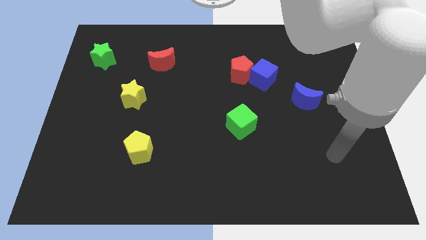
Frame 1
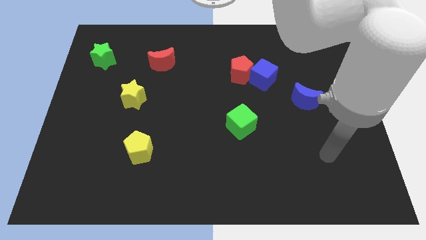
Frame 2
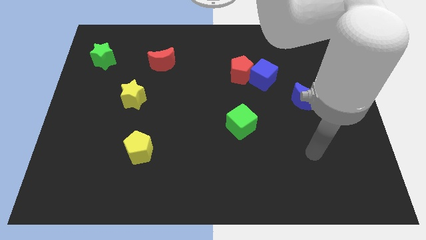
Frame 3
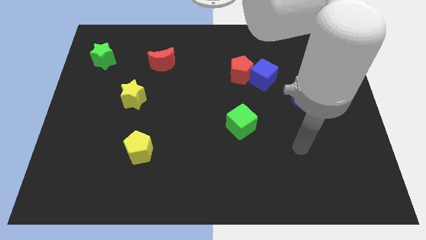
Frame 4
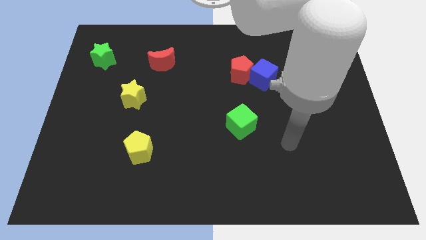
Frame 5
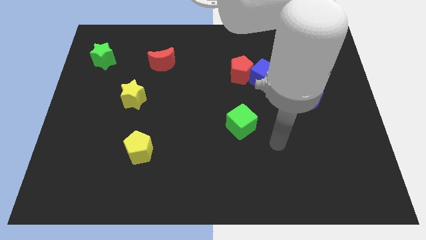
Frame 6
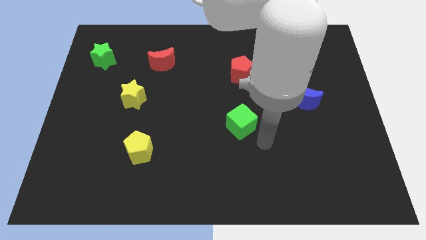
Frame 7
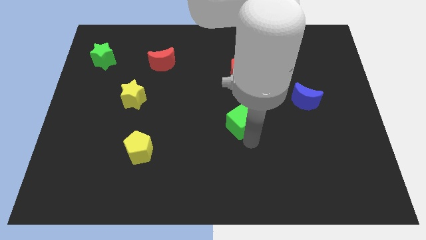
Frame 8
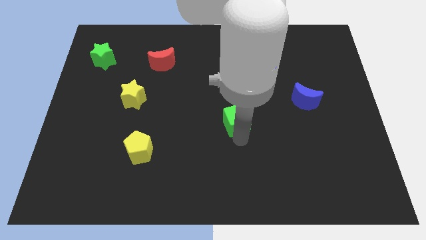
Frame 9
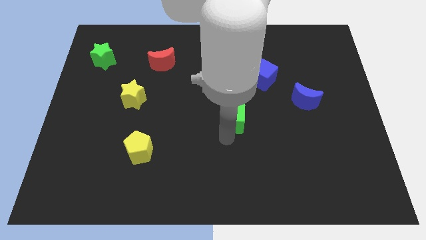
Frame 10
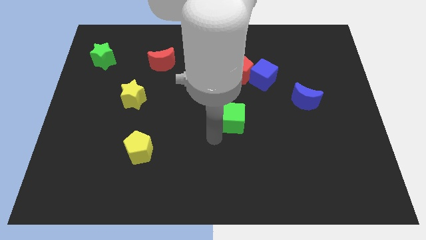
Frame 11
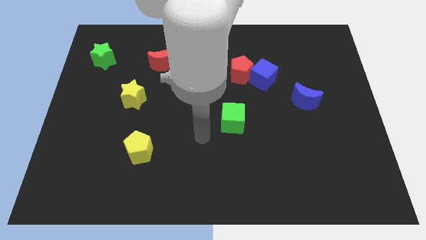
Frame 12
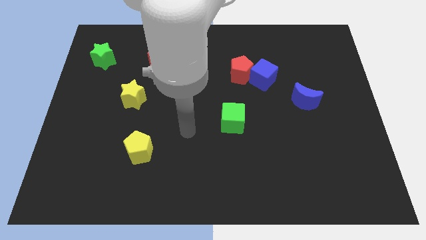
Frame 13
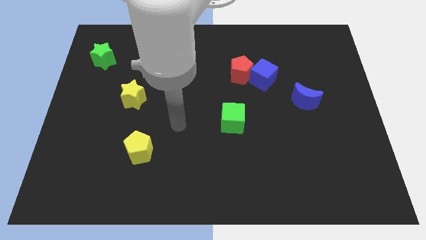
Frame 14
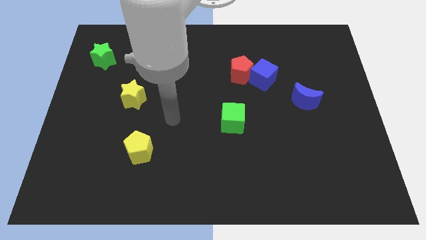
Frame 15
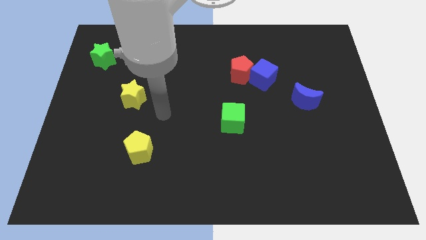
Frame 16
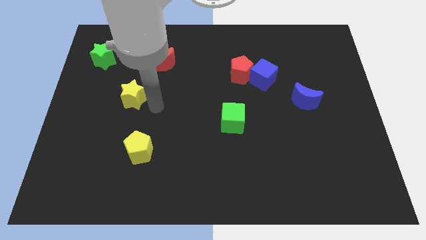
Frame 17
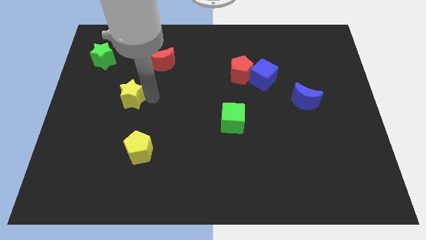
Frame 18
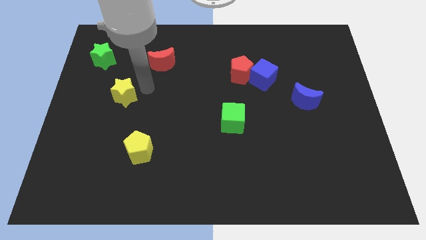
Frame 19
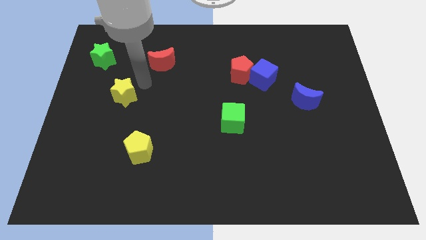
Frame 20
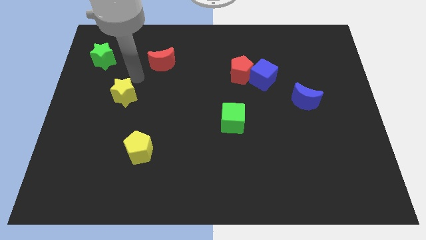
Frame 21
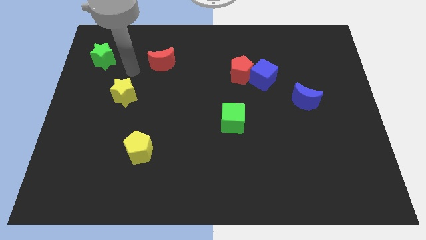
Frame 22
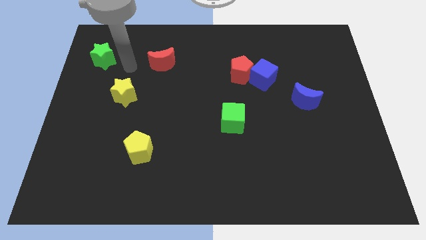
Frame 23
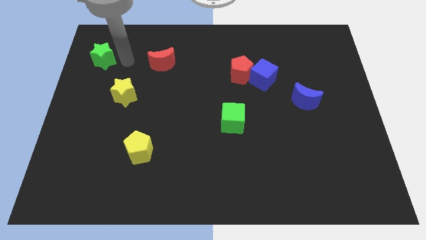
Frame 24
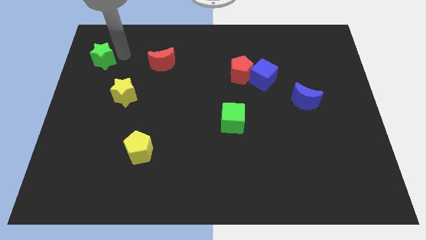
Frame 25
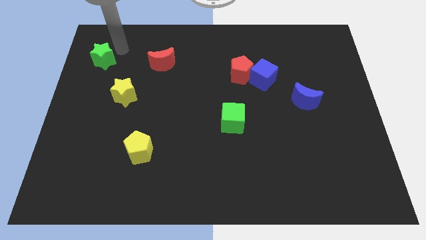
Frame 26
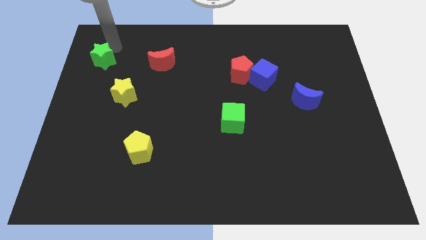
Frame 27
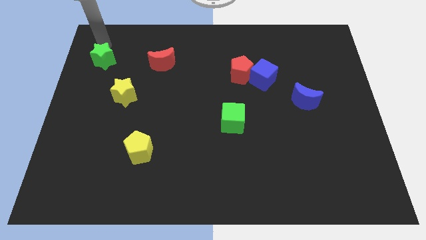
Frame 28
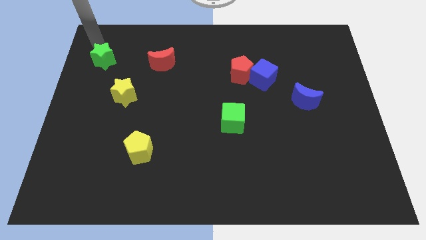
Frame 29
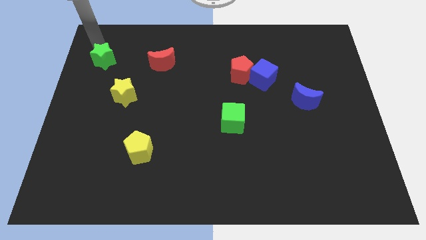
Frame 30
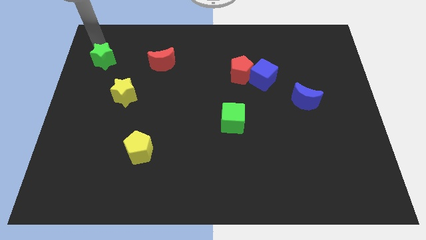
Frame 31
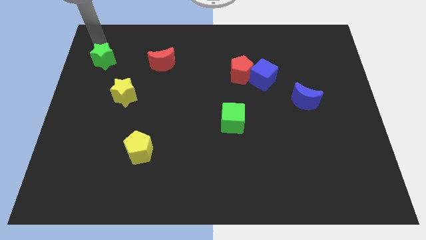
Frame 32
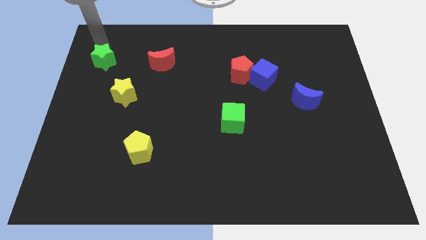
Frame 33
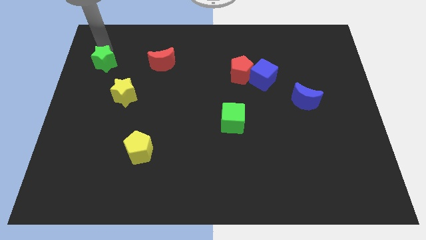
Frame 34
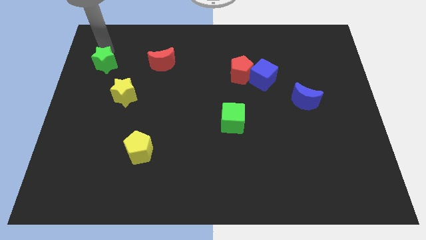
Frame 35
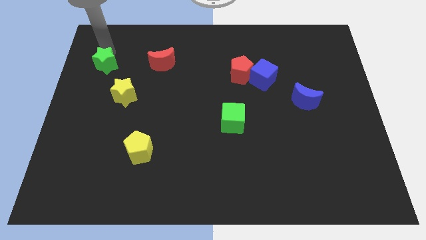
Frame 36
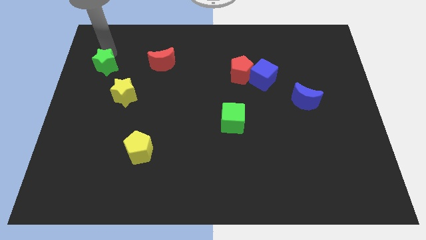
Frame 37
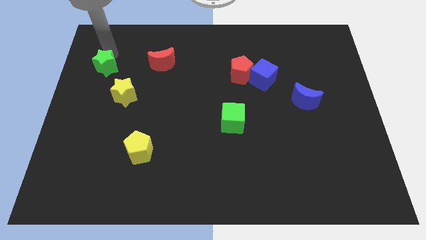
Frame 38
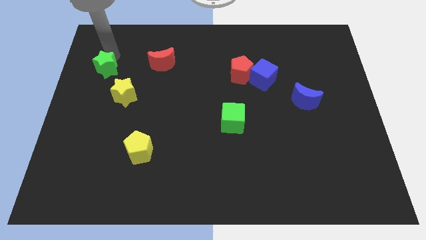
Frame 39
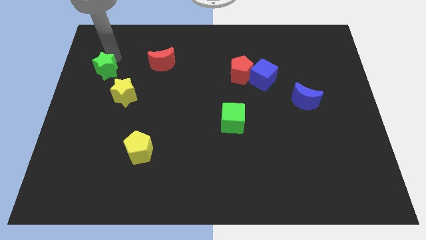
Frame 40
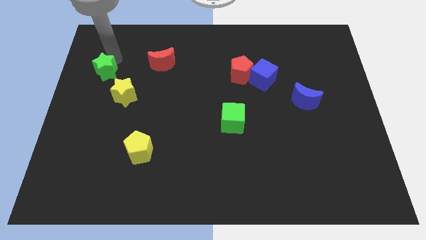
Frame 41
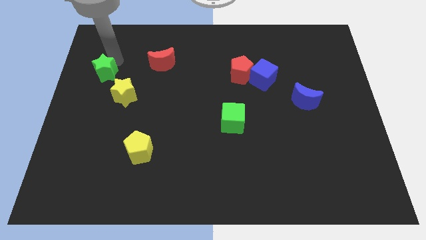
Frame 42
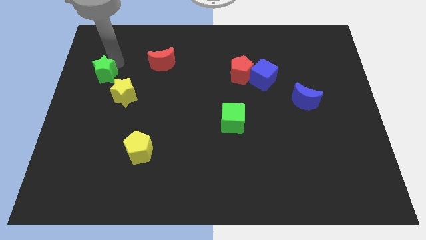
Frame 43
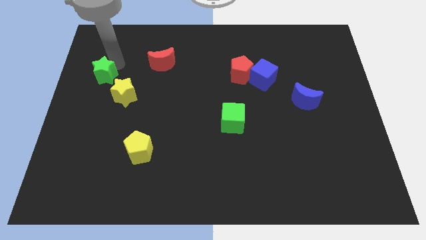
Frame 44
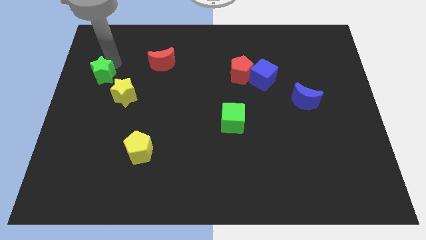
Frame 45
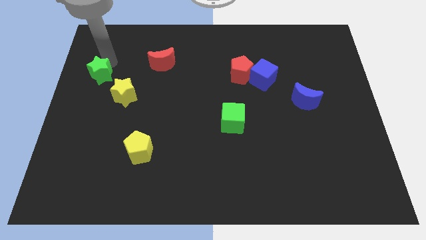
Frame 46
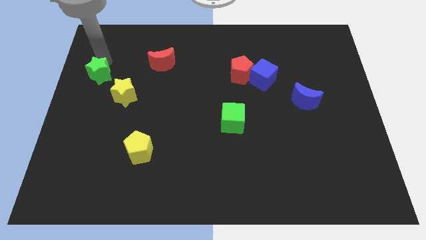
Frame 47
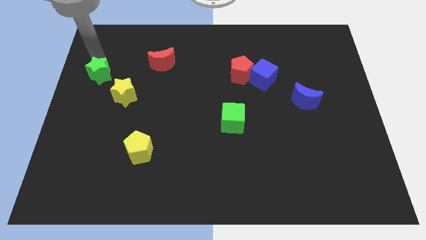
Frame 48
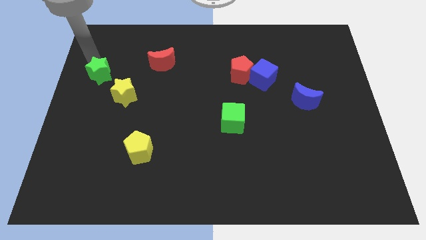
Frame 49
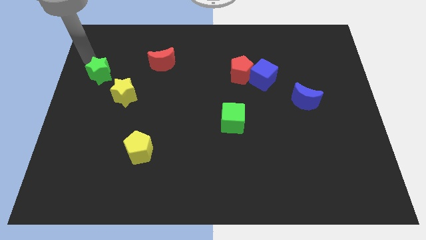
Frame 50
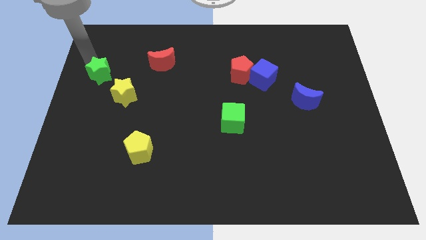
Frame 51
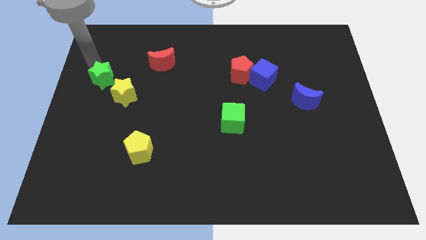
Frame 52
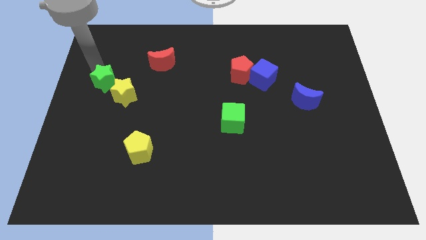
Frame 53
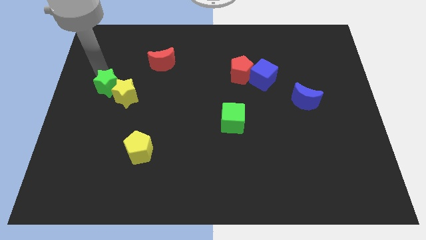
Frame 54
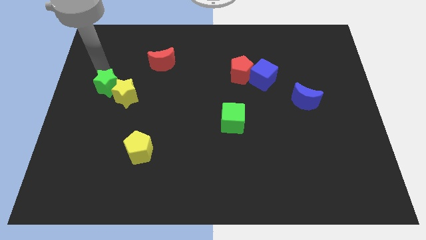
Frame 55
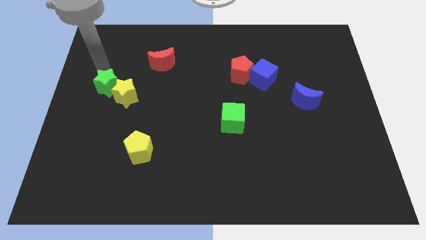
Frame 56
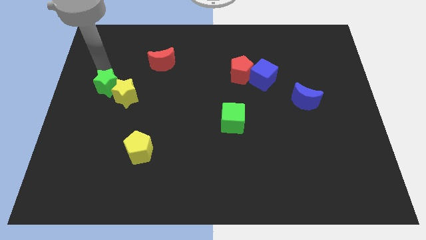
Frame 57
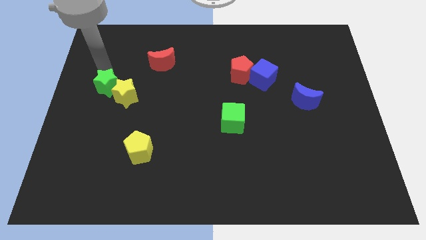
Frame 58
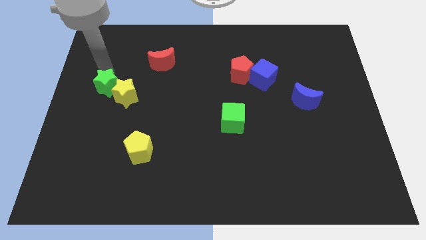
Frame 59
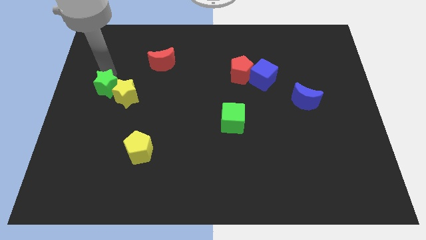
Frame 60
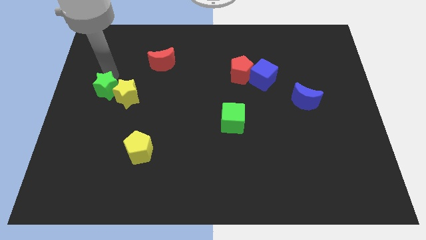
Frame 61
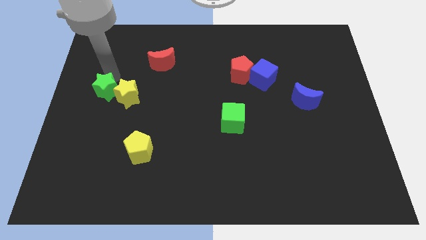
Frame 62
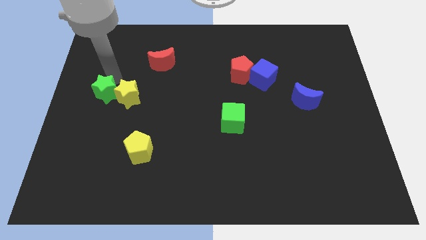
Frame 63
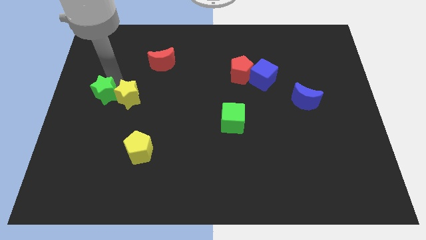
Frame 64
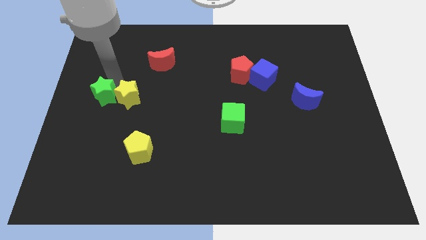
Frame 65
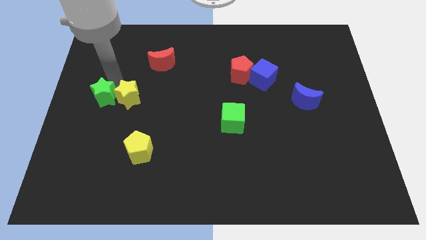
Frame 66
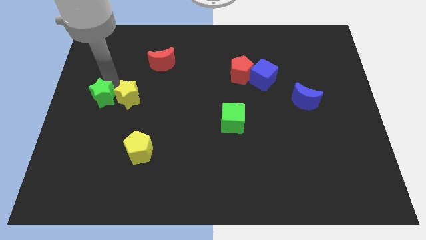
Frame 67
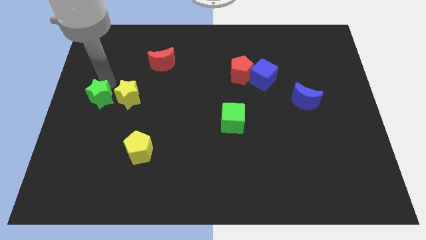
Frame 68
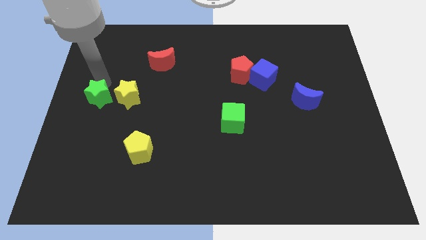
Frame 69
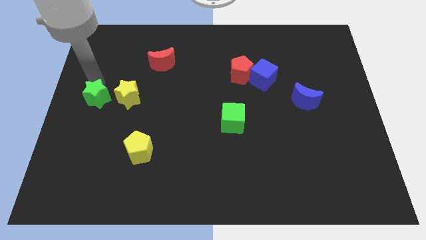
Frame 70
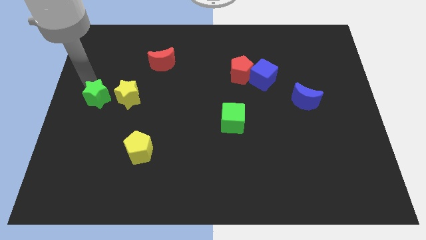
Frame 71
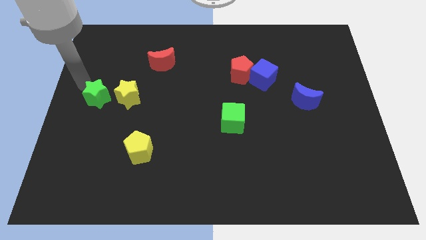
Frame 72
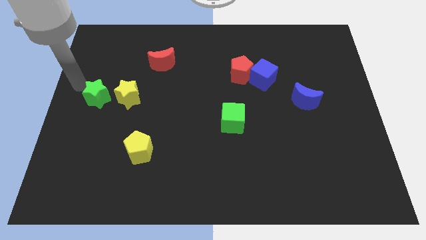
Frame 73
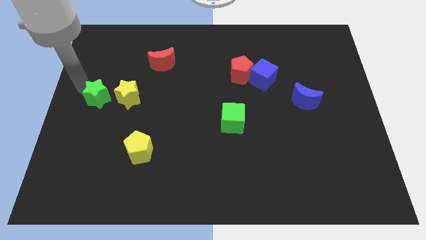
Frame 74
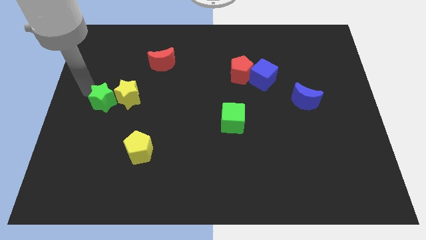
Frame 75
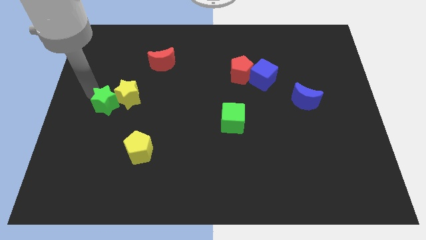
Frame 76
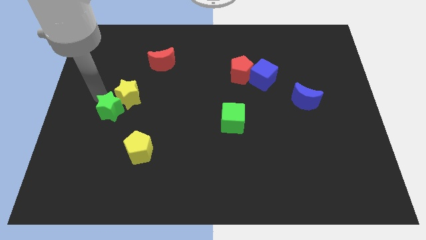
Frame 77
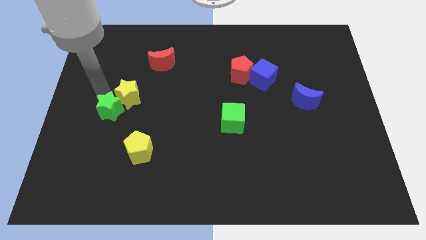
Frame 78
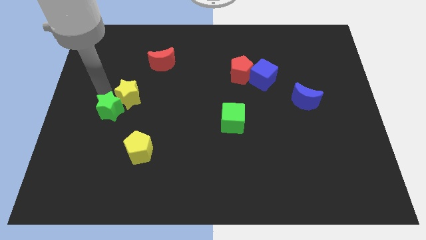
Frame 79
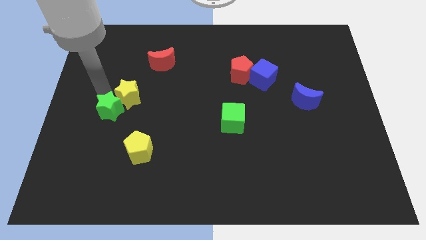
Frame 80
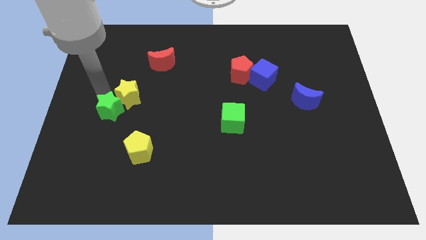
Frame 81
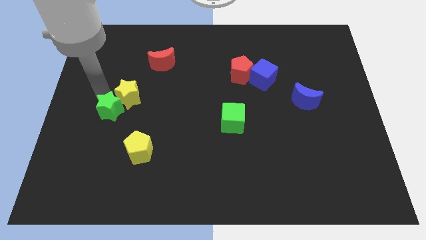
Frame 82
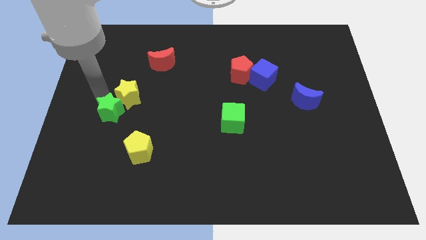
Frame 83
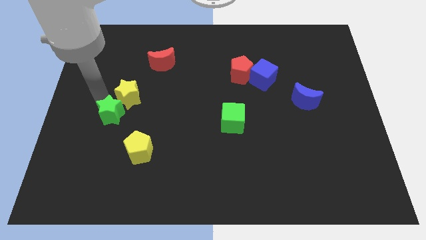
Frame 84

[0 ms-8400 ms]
put the green star to the top left of the yellow pentagon
